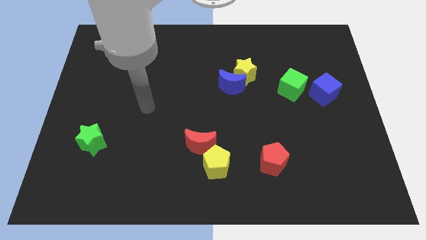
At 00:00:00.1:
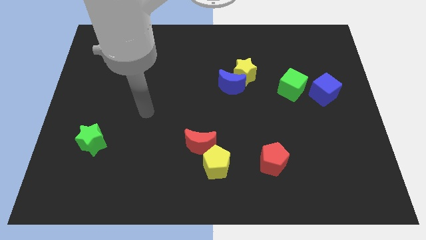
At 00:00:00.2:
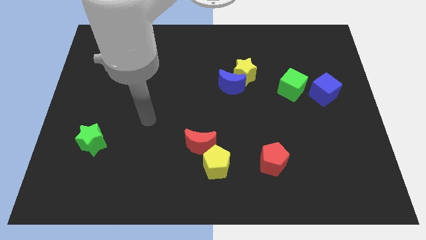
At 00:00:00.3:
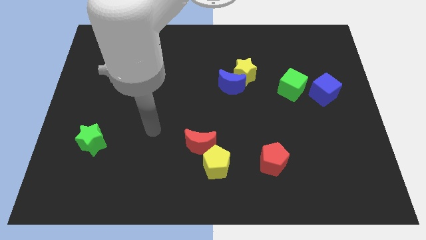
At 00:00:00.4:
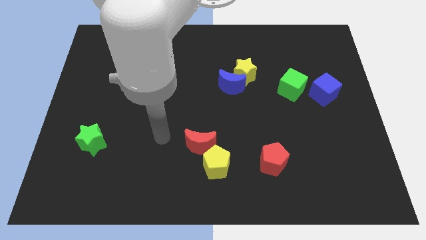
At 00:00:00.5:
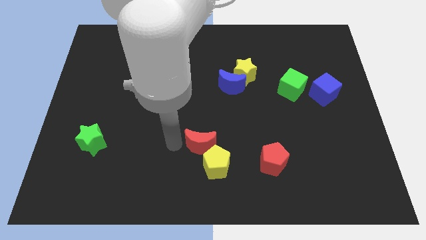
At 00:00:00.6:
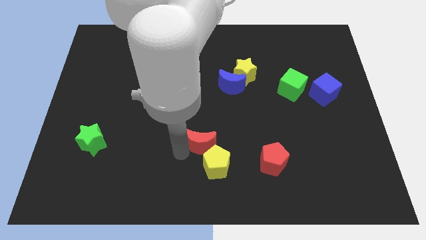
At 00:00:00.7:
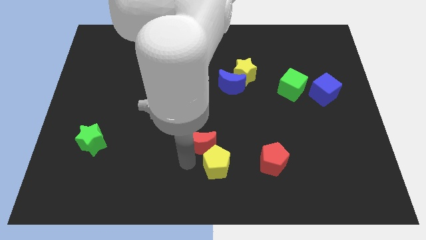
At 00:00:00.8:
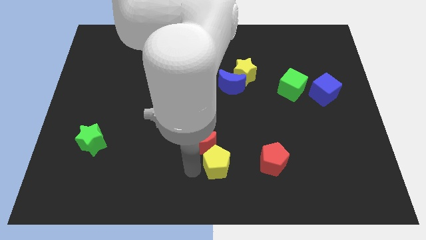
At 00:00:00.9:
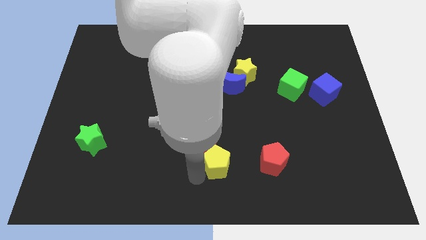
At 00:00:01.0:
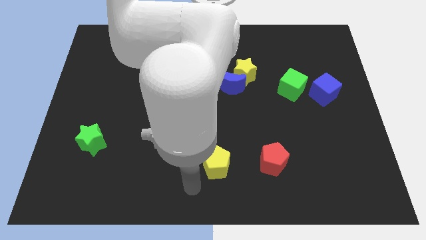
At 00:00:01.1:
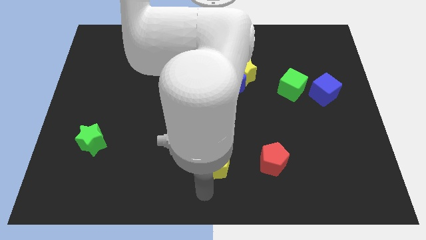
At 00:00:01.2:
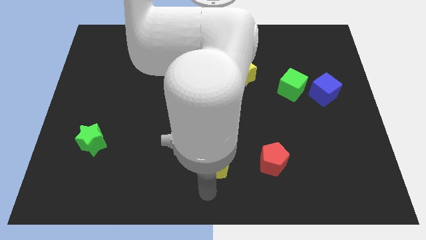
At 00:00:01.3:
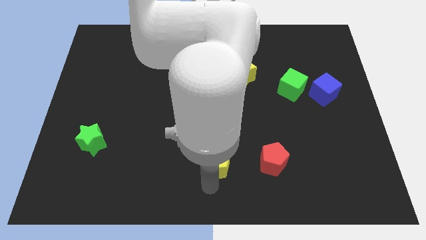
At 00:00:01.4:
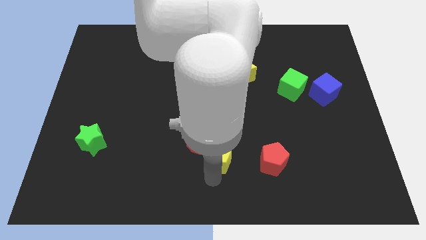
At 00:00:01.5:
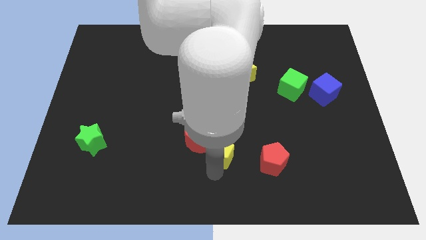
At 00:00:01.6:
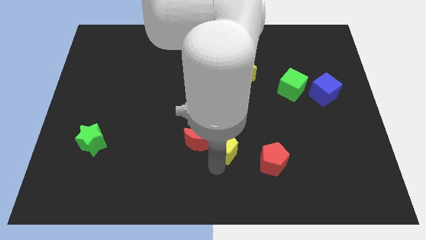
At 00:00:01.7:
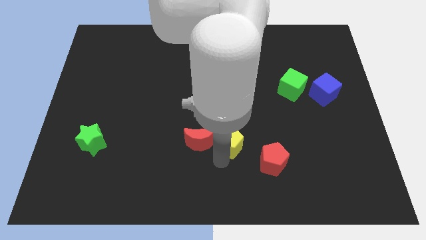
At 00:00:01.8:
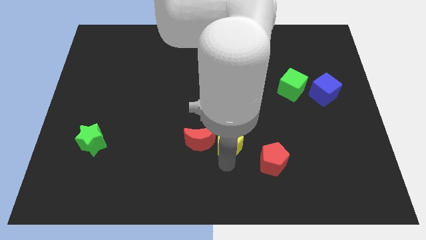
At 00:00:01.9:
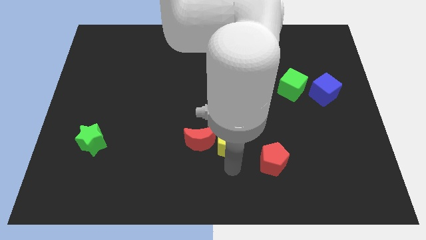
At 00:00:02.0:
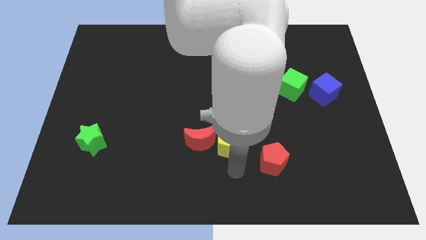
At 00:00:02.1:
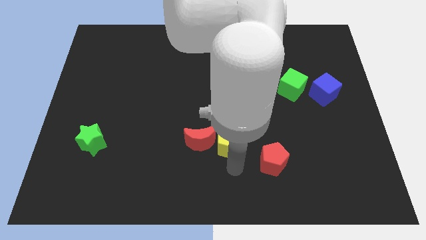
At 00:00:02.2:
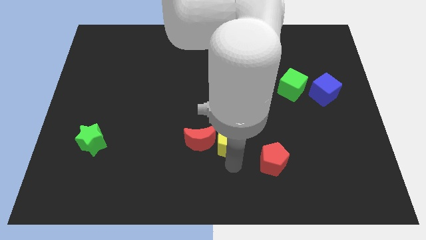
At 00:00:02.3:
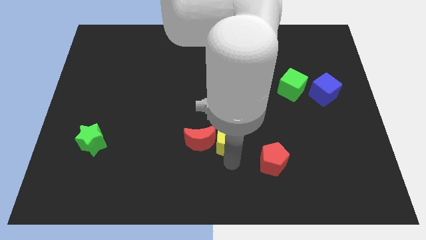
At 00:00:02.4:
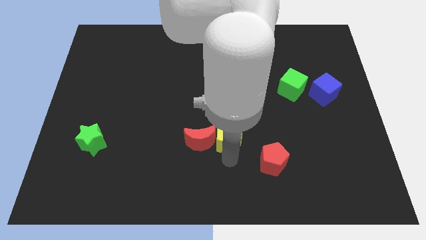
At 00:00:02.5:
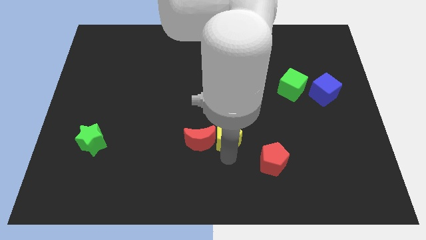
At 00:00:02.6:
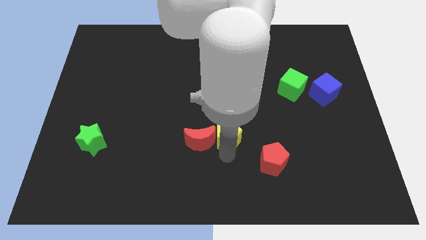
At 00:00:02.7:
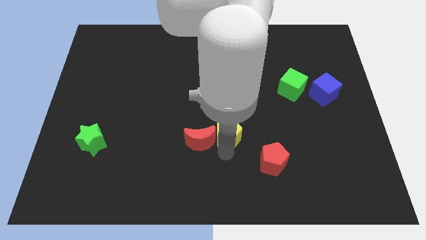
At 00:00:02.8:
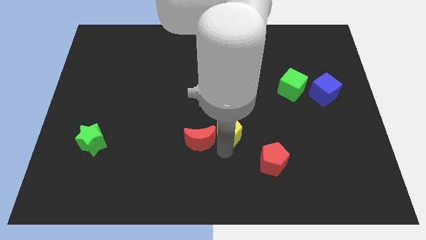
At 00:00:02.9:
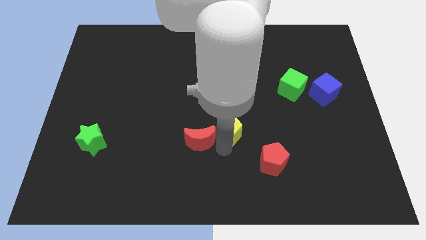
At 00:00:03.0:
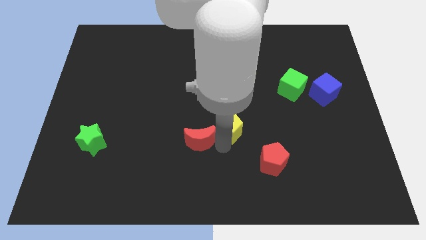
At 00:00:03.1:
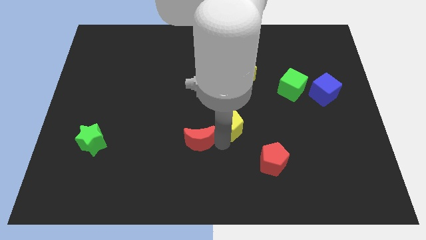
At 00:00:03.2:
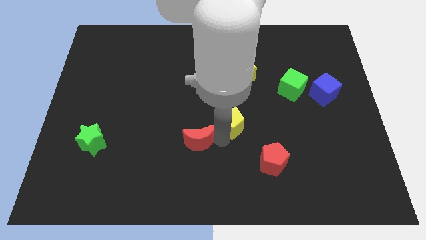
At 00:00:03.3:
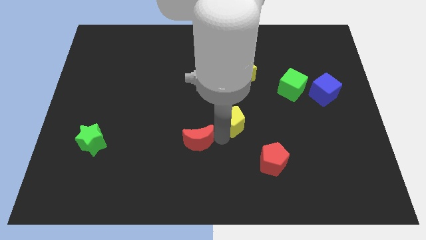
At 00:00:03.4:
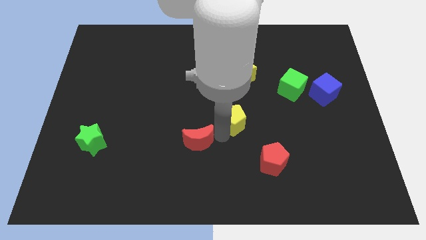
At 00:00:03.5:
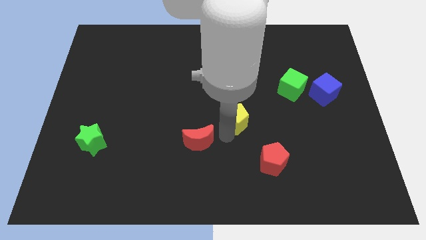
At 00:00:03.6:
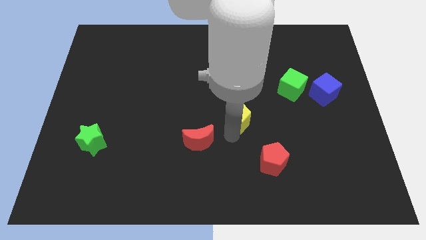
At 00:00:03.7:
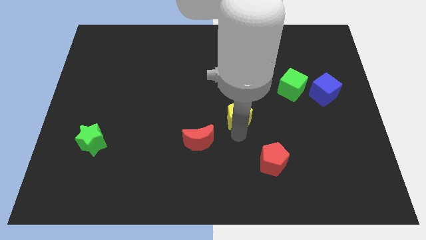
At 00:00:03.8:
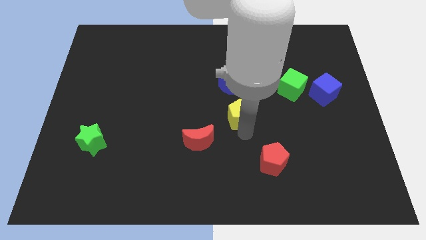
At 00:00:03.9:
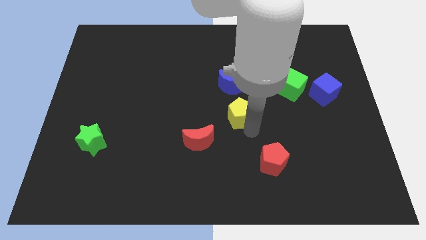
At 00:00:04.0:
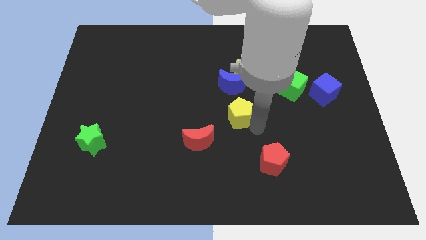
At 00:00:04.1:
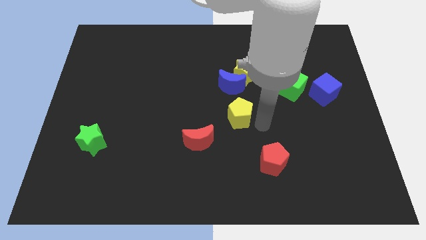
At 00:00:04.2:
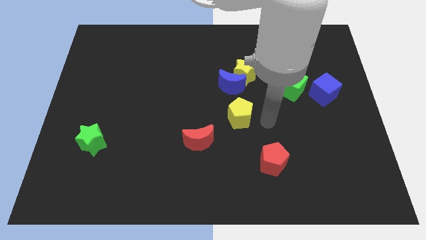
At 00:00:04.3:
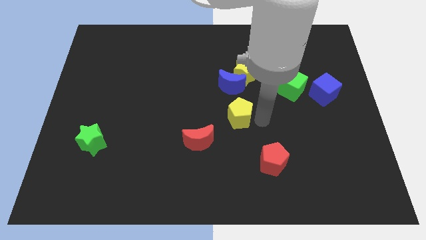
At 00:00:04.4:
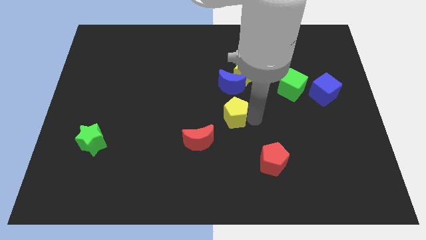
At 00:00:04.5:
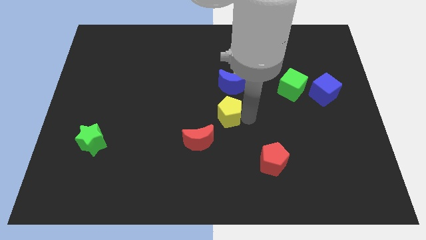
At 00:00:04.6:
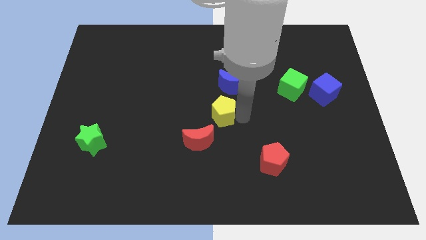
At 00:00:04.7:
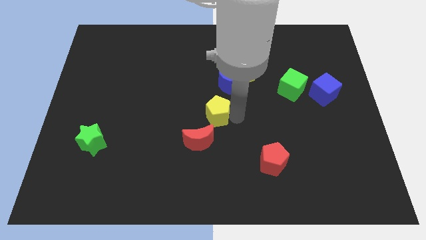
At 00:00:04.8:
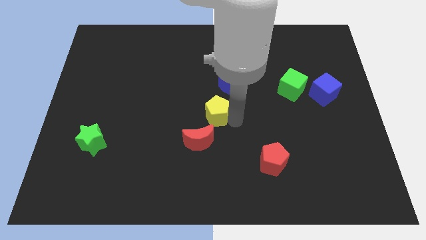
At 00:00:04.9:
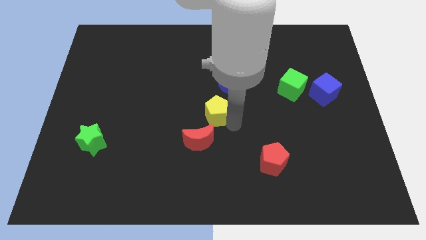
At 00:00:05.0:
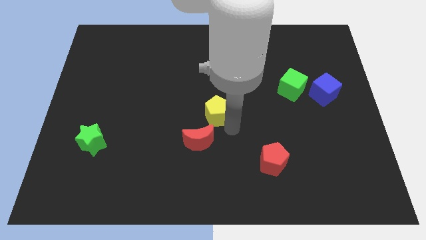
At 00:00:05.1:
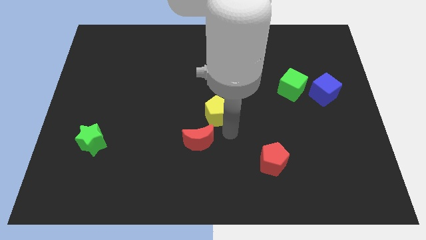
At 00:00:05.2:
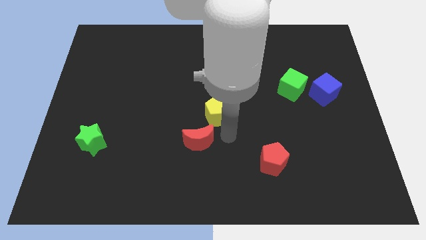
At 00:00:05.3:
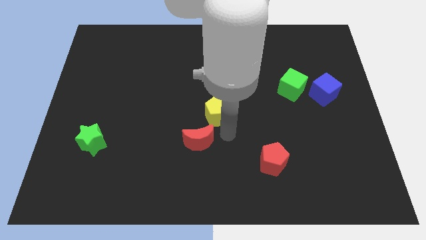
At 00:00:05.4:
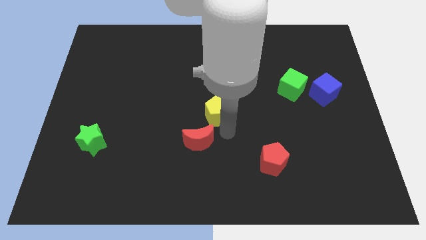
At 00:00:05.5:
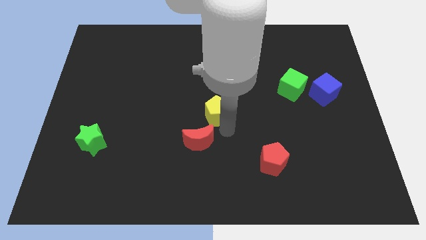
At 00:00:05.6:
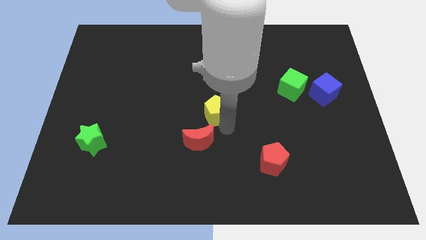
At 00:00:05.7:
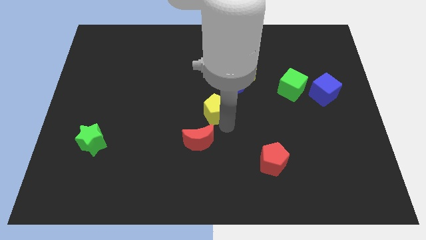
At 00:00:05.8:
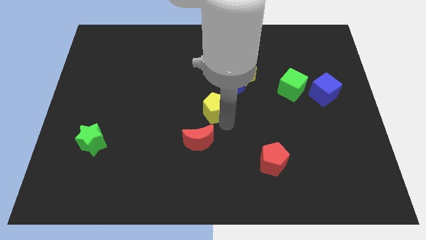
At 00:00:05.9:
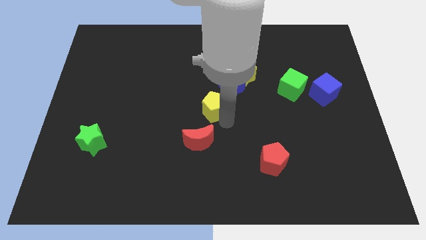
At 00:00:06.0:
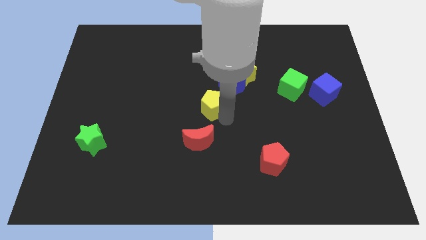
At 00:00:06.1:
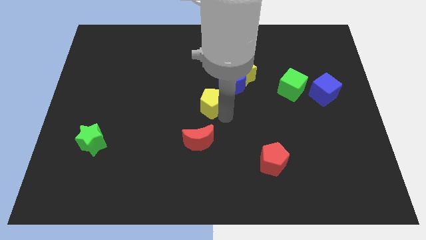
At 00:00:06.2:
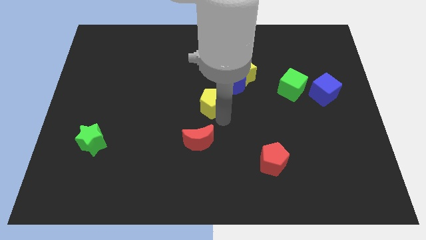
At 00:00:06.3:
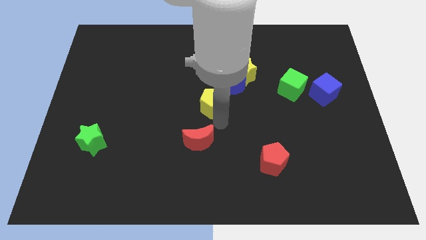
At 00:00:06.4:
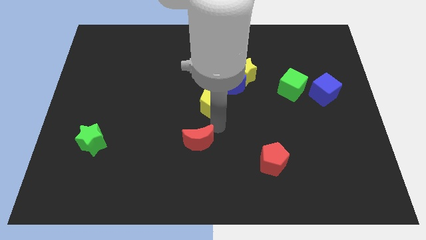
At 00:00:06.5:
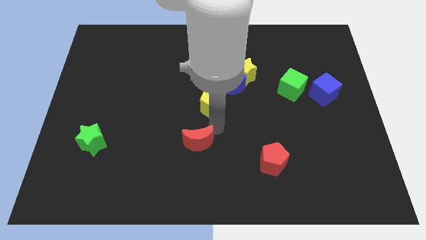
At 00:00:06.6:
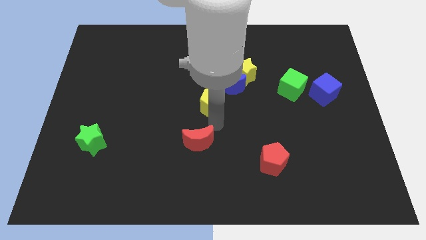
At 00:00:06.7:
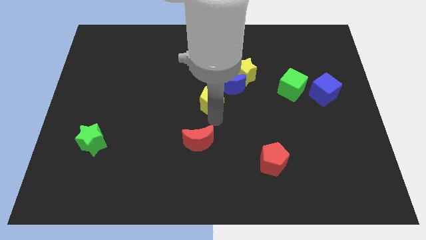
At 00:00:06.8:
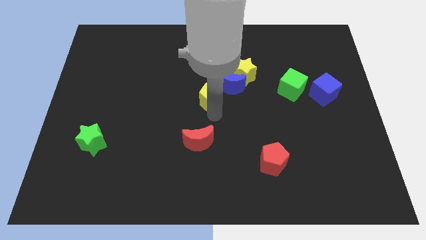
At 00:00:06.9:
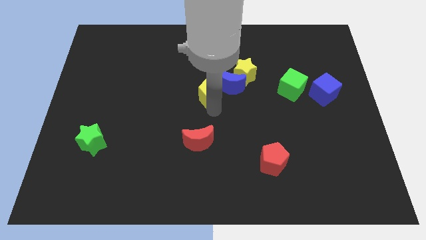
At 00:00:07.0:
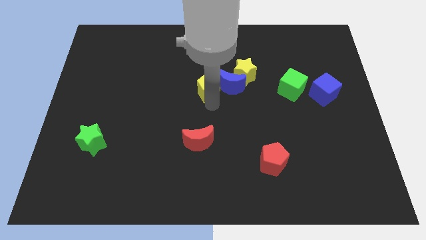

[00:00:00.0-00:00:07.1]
push the yellow pentagon upwards

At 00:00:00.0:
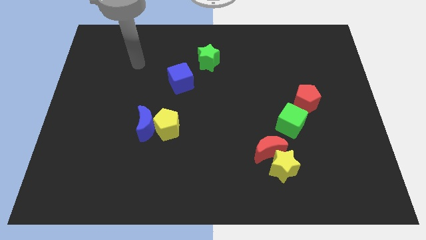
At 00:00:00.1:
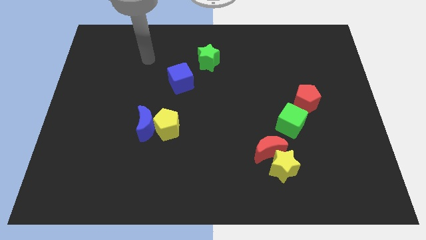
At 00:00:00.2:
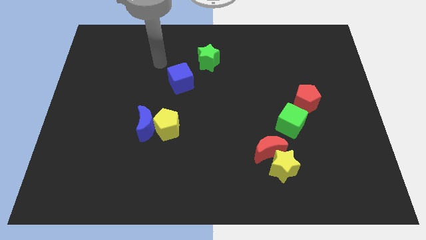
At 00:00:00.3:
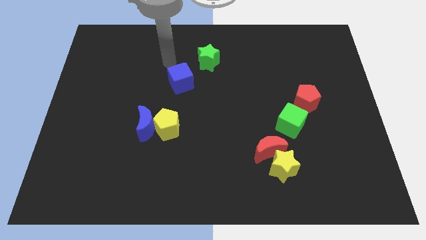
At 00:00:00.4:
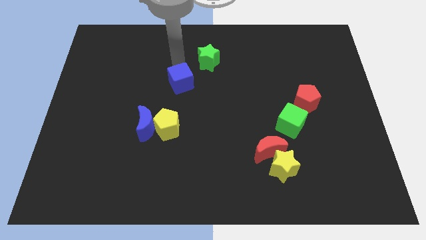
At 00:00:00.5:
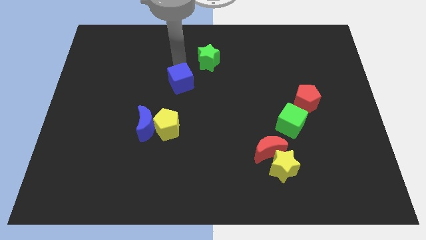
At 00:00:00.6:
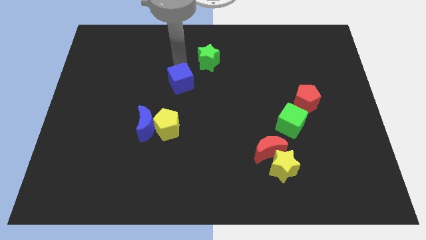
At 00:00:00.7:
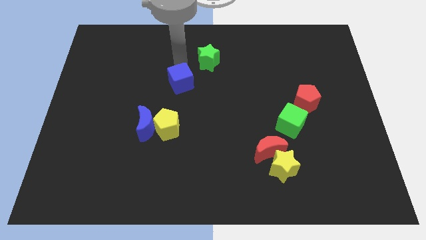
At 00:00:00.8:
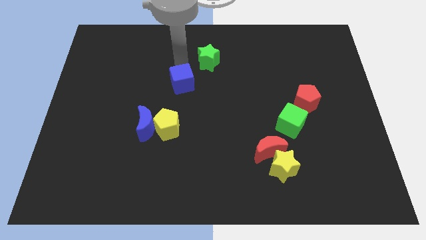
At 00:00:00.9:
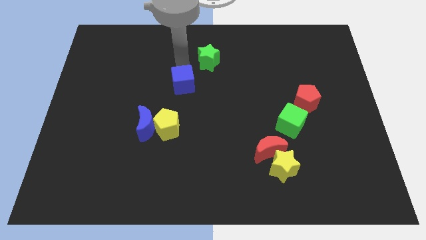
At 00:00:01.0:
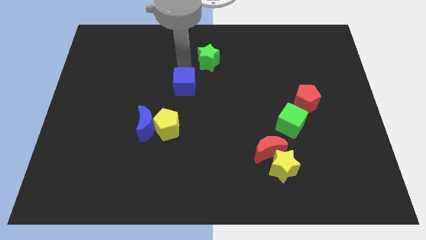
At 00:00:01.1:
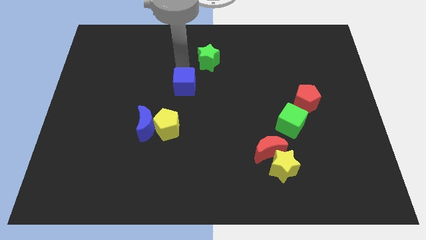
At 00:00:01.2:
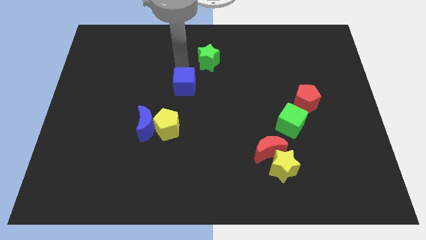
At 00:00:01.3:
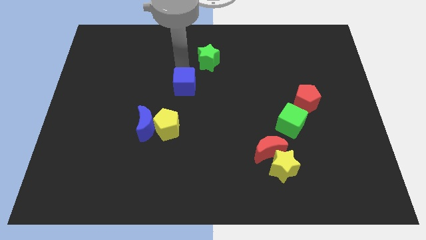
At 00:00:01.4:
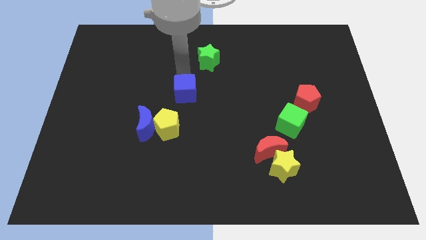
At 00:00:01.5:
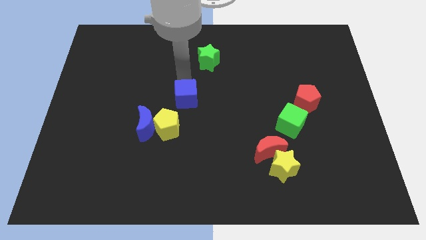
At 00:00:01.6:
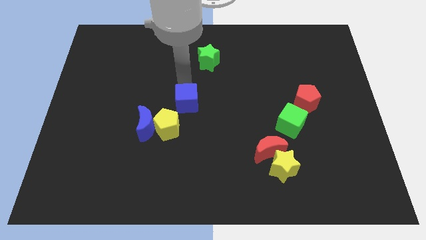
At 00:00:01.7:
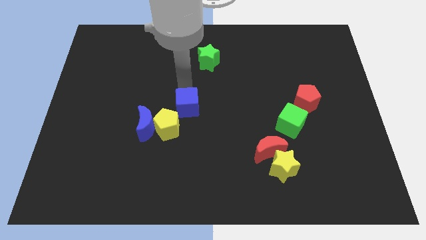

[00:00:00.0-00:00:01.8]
slightly push the blue cube downwards
